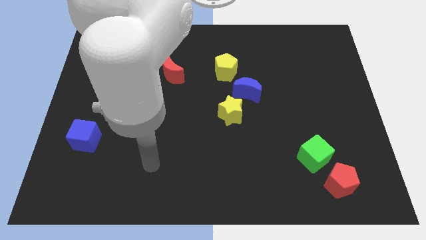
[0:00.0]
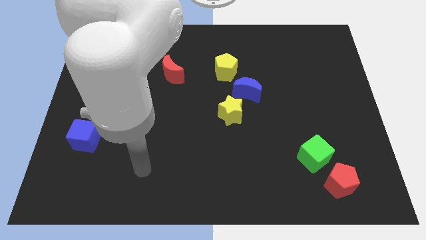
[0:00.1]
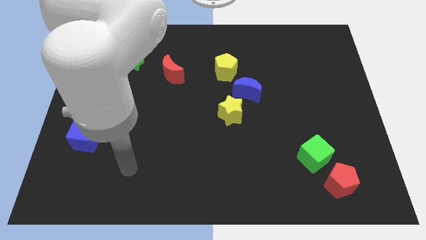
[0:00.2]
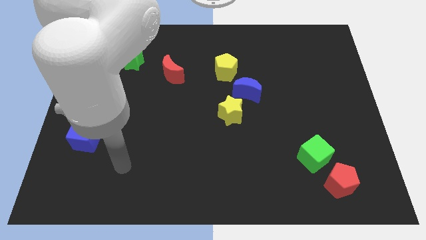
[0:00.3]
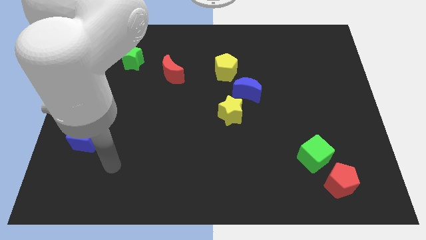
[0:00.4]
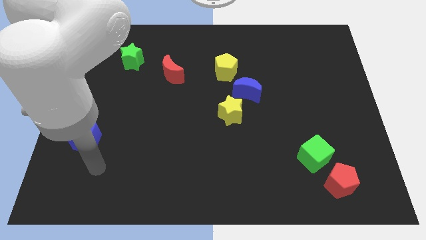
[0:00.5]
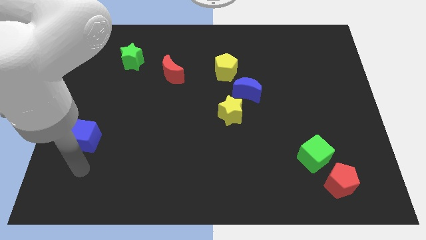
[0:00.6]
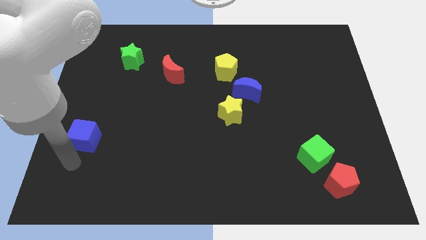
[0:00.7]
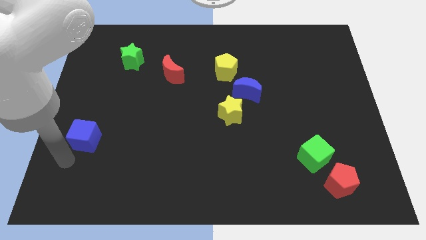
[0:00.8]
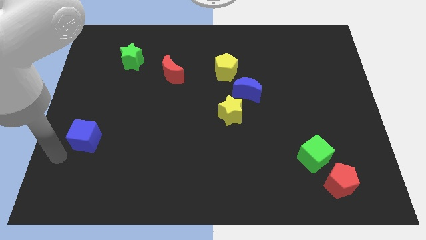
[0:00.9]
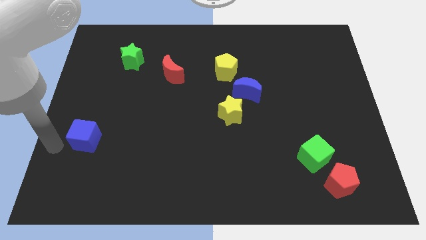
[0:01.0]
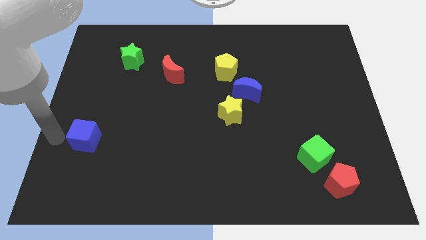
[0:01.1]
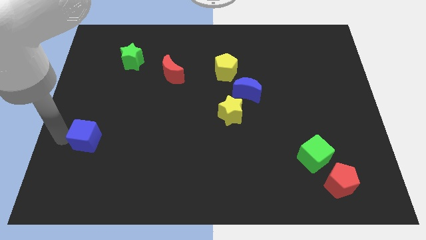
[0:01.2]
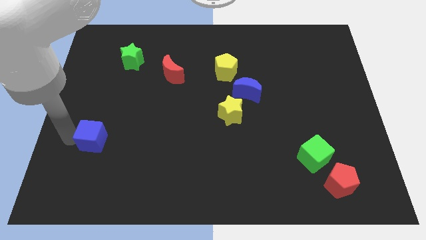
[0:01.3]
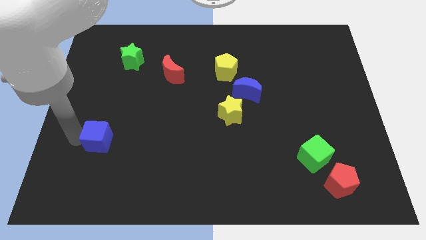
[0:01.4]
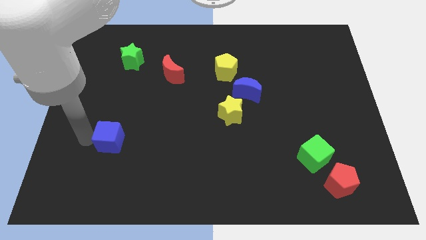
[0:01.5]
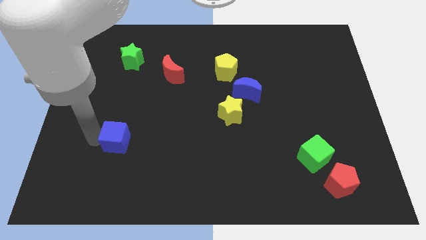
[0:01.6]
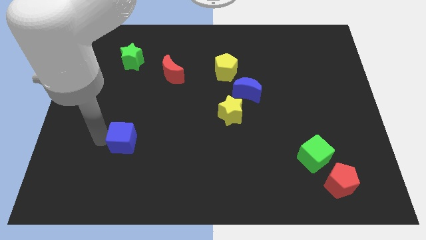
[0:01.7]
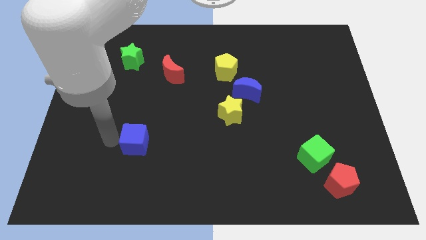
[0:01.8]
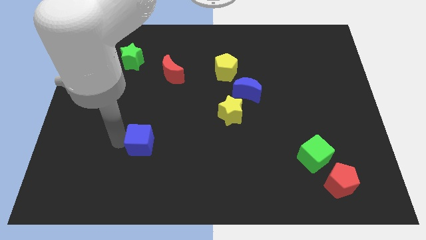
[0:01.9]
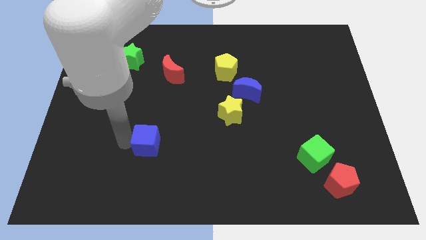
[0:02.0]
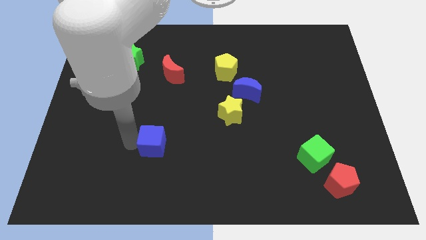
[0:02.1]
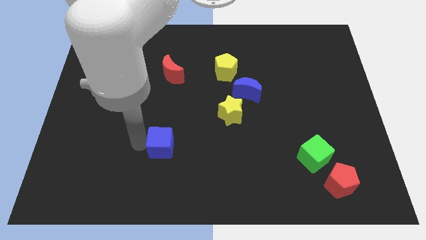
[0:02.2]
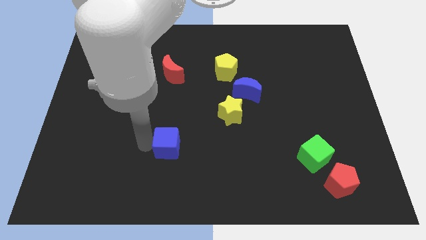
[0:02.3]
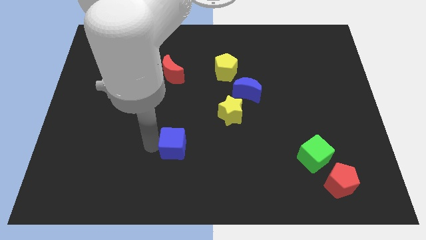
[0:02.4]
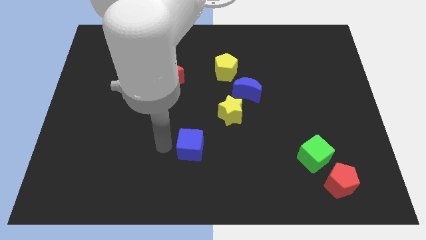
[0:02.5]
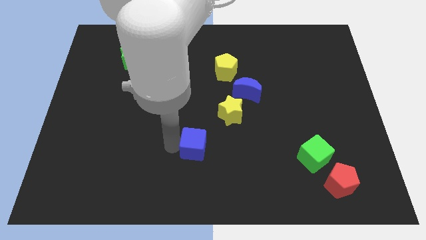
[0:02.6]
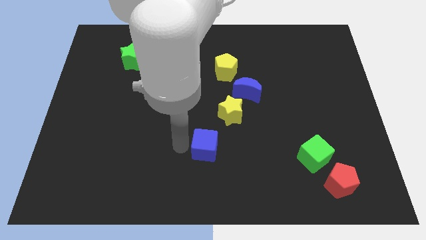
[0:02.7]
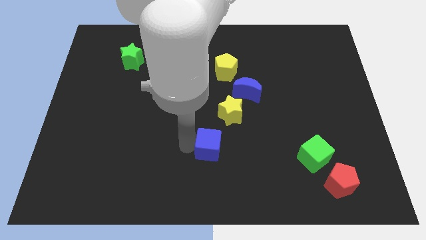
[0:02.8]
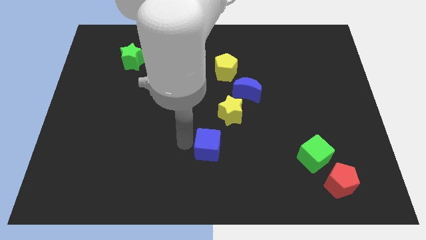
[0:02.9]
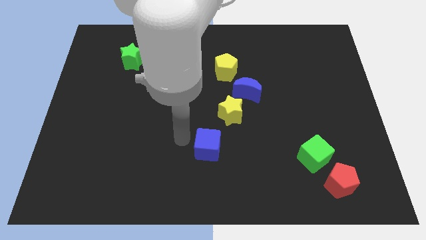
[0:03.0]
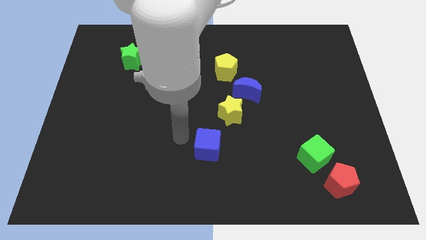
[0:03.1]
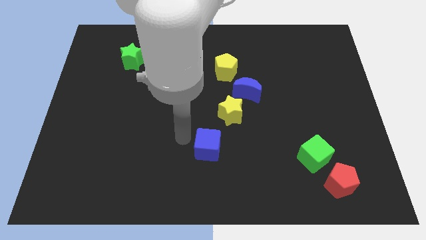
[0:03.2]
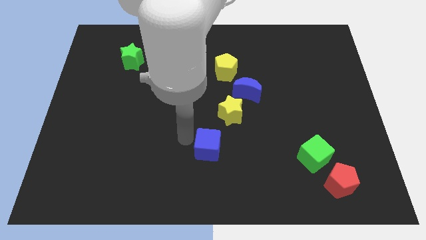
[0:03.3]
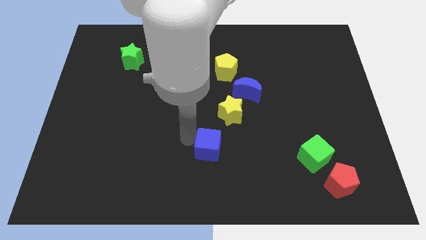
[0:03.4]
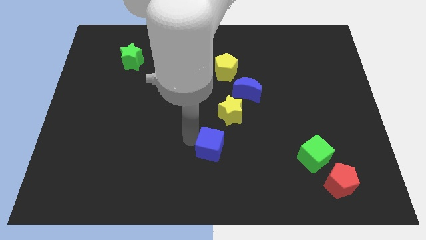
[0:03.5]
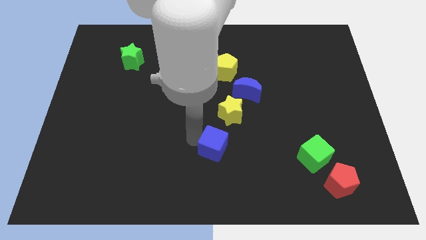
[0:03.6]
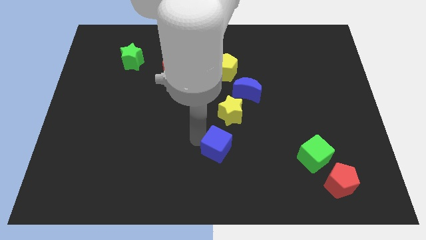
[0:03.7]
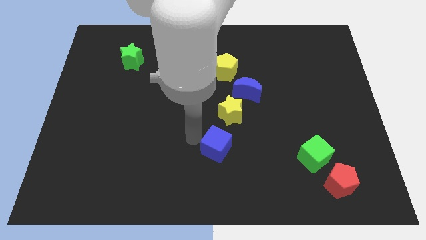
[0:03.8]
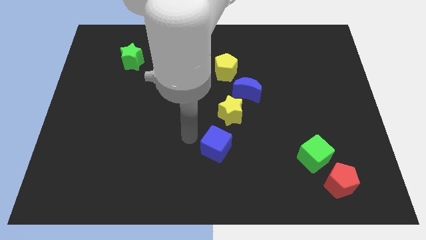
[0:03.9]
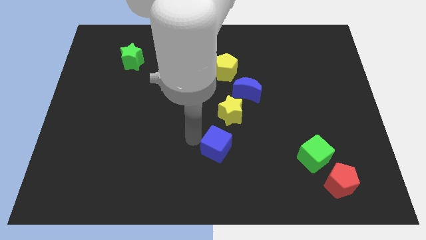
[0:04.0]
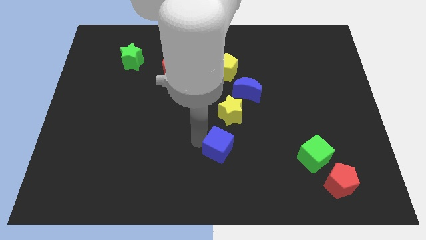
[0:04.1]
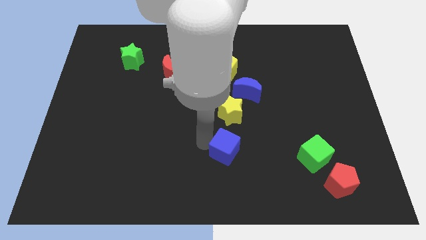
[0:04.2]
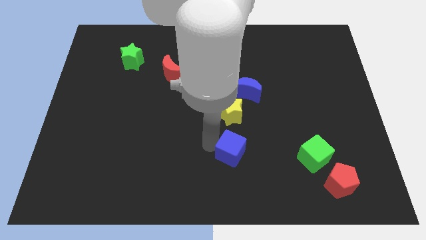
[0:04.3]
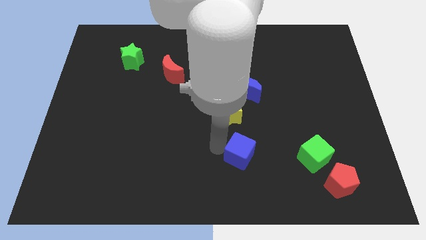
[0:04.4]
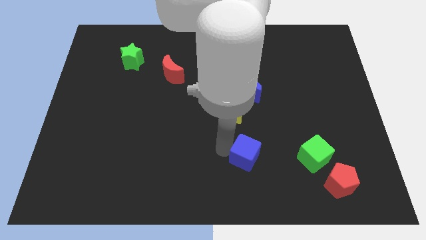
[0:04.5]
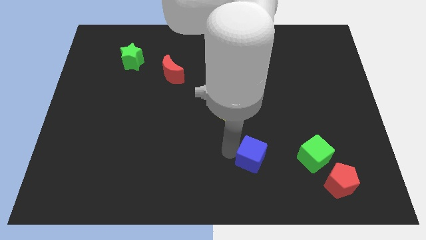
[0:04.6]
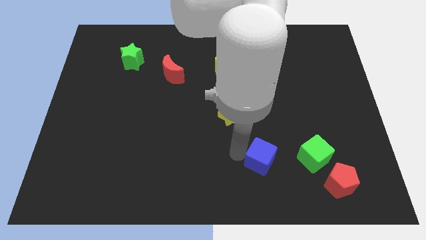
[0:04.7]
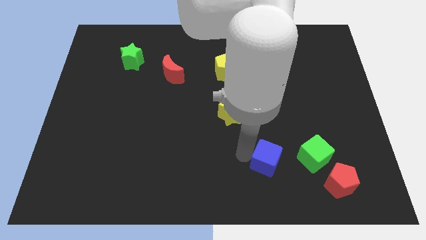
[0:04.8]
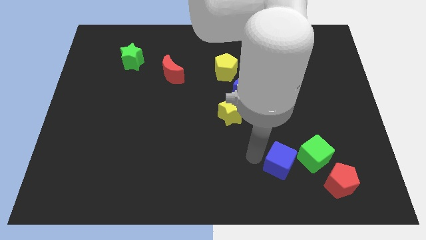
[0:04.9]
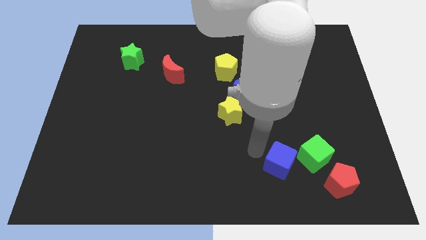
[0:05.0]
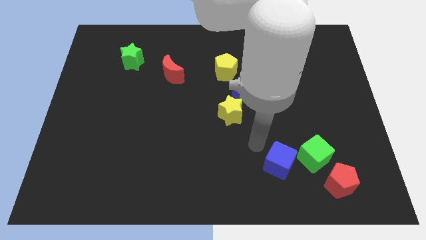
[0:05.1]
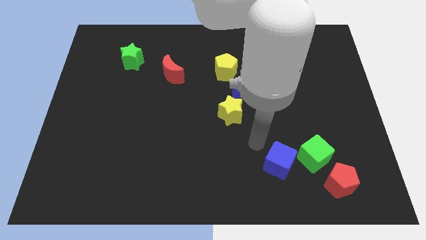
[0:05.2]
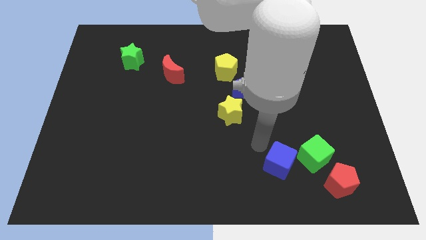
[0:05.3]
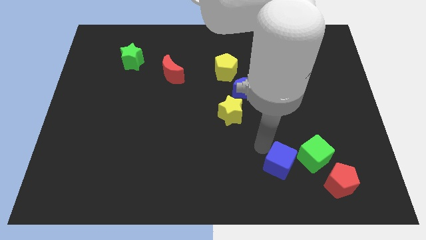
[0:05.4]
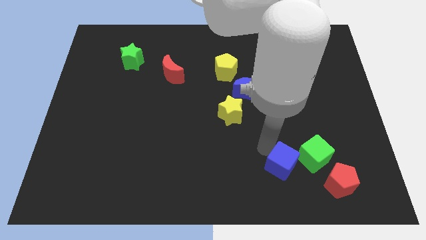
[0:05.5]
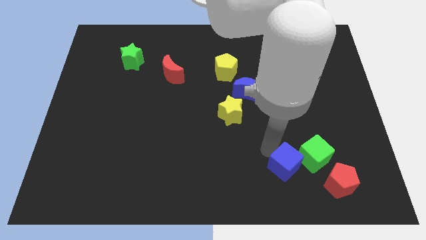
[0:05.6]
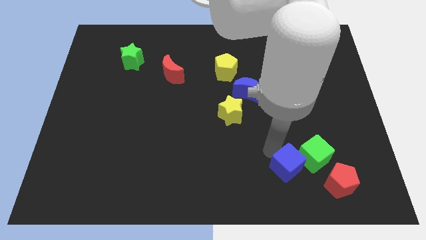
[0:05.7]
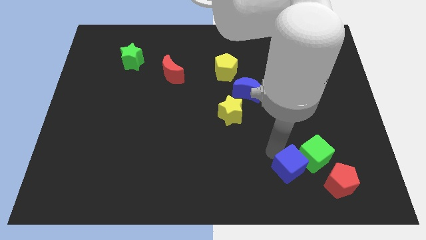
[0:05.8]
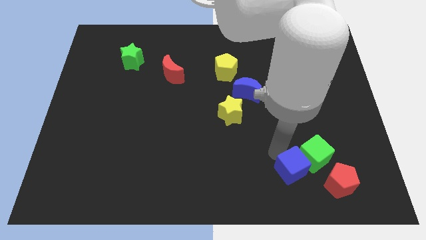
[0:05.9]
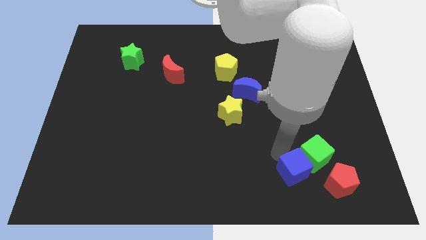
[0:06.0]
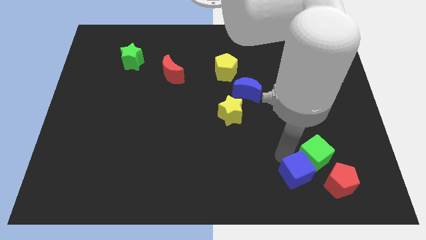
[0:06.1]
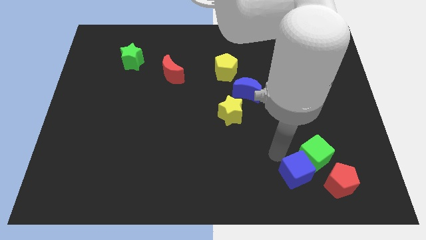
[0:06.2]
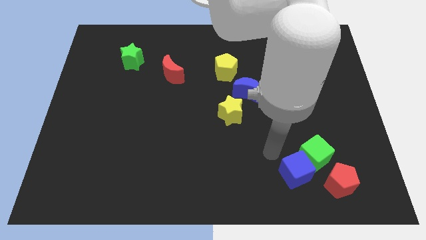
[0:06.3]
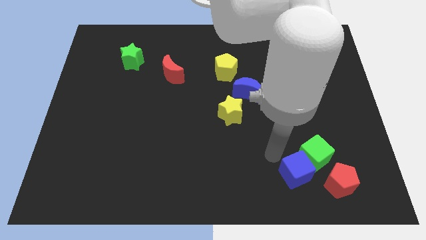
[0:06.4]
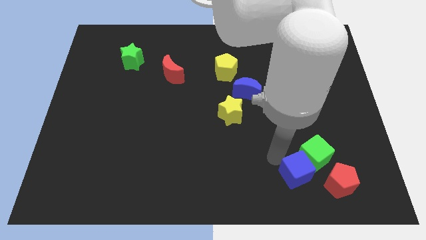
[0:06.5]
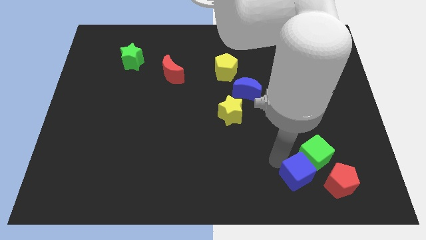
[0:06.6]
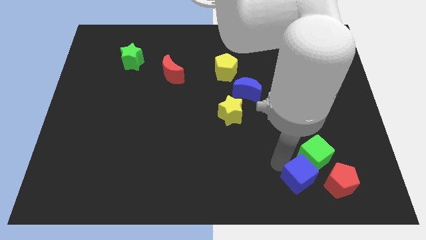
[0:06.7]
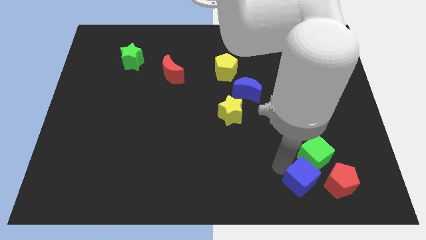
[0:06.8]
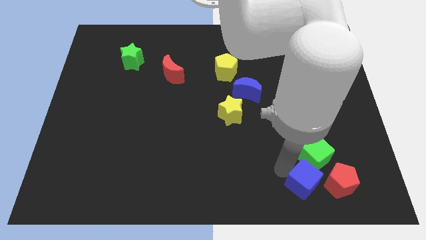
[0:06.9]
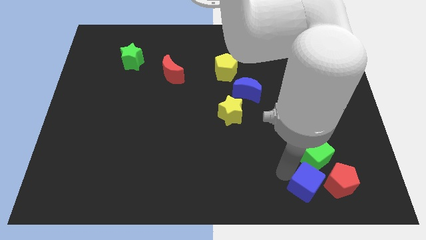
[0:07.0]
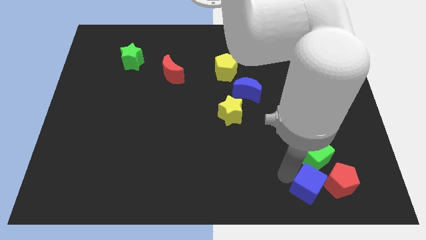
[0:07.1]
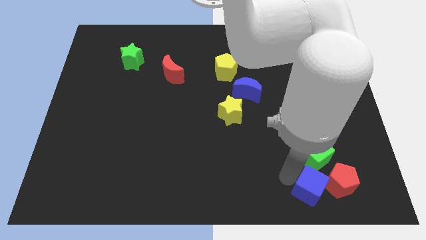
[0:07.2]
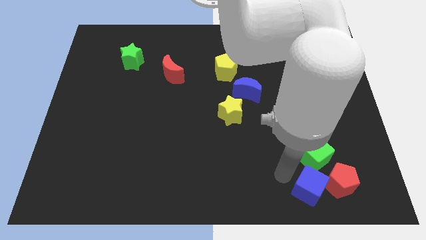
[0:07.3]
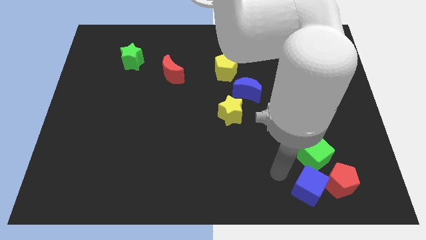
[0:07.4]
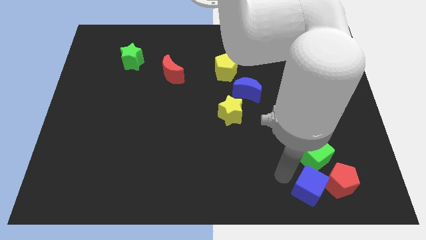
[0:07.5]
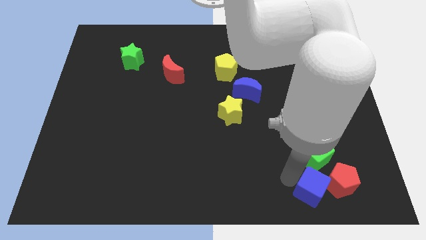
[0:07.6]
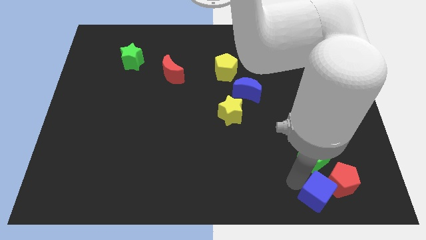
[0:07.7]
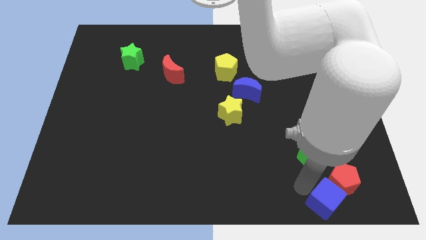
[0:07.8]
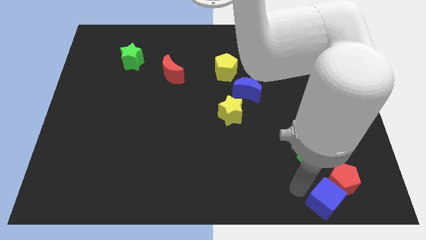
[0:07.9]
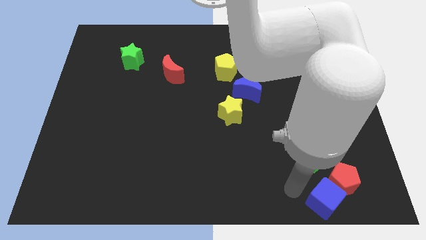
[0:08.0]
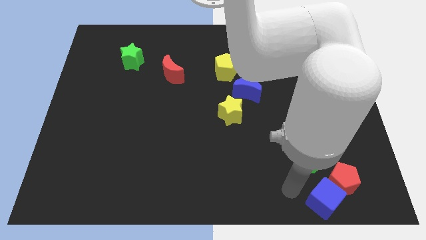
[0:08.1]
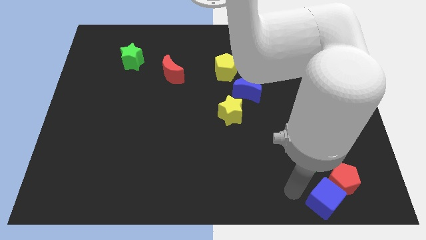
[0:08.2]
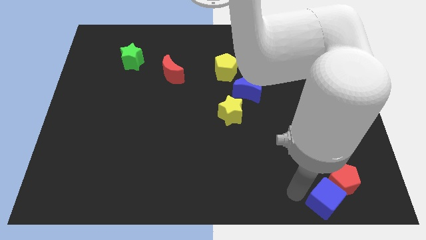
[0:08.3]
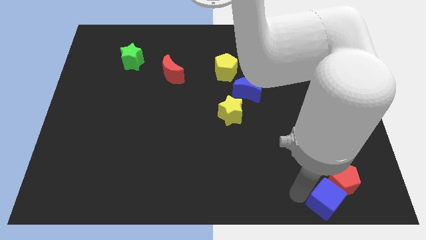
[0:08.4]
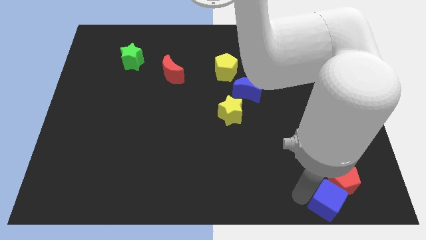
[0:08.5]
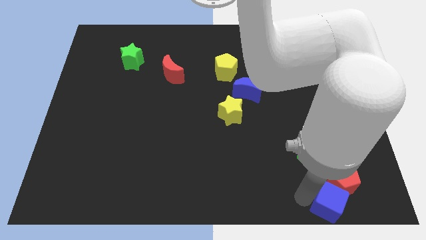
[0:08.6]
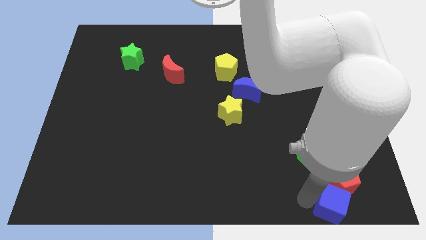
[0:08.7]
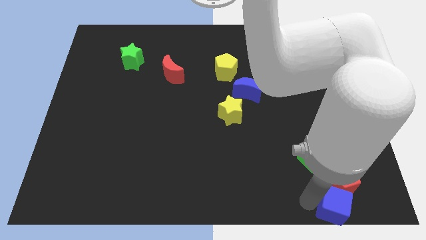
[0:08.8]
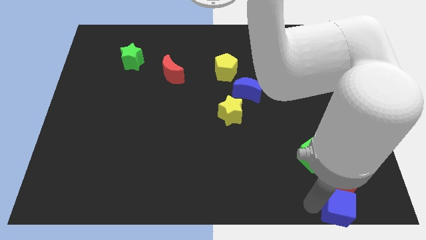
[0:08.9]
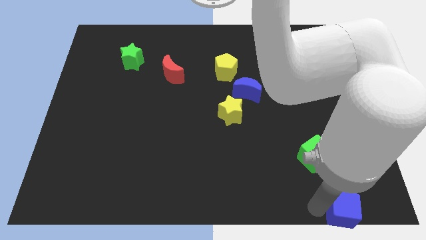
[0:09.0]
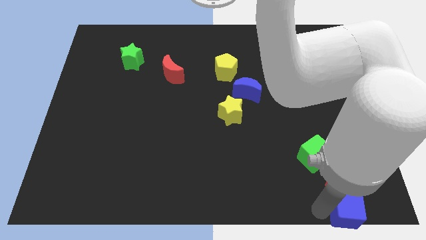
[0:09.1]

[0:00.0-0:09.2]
push the blue cube to the bottom right of the board
